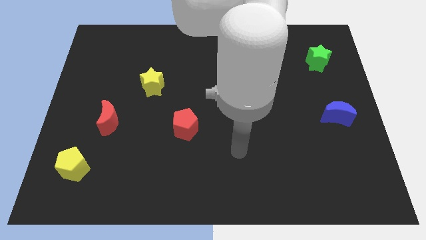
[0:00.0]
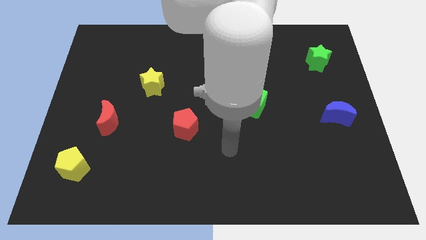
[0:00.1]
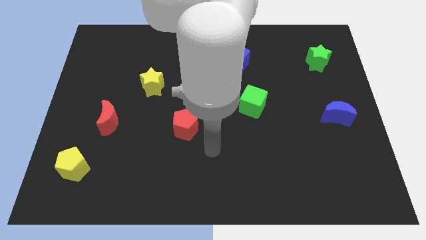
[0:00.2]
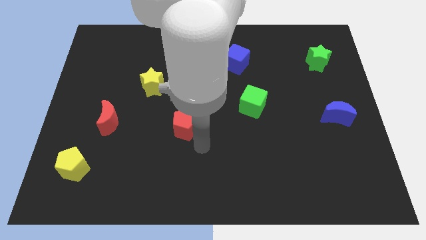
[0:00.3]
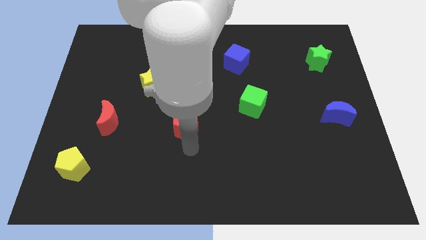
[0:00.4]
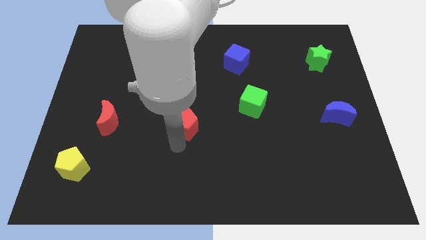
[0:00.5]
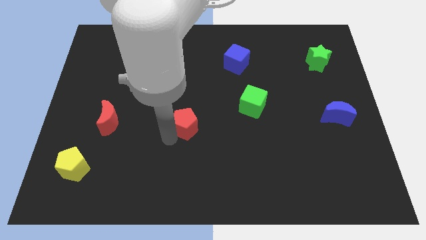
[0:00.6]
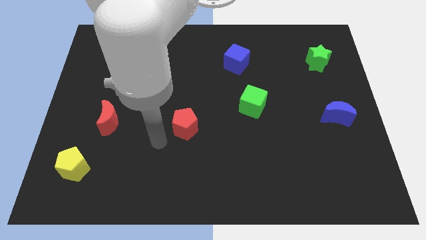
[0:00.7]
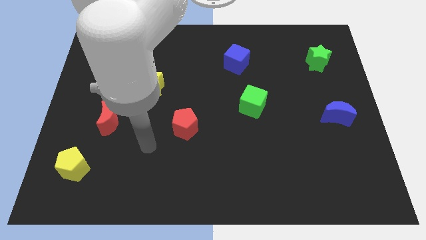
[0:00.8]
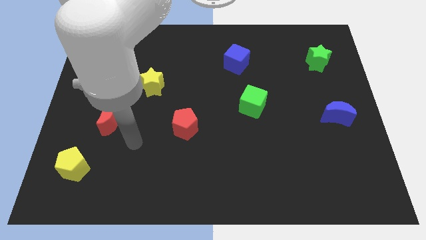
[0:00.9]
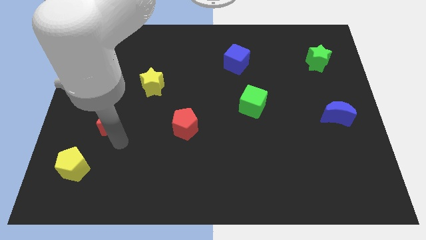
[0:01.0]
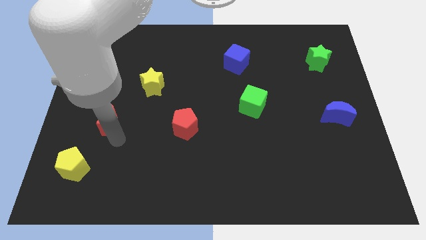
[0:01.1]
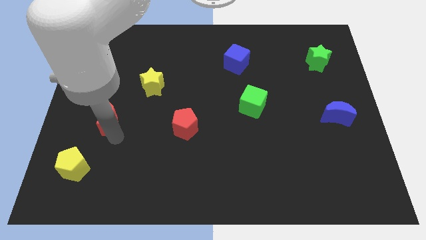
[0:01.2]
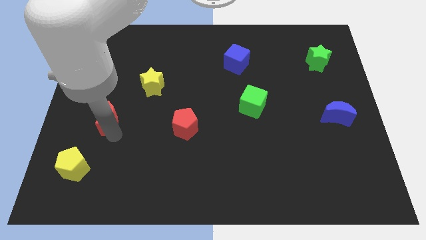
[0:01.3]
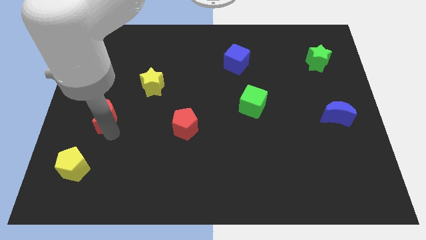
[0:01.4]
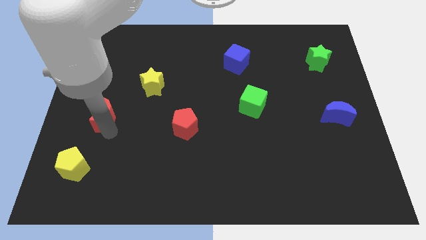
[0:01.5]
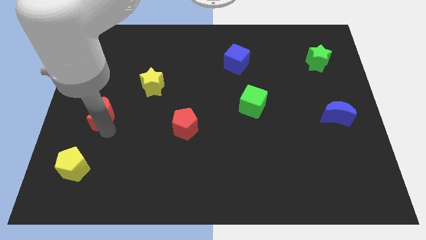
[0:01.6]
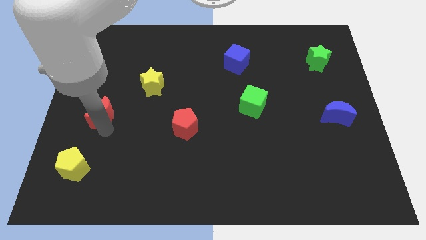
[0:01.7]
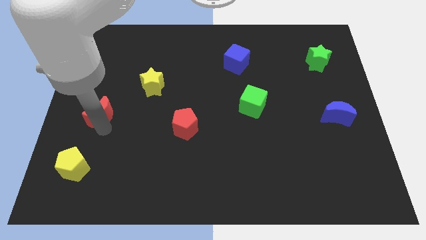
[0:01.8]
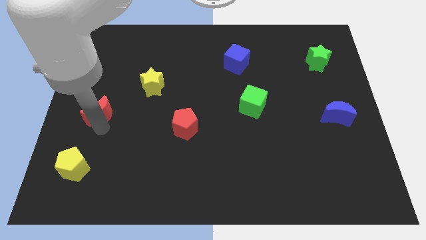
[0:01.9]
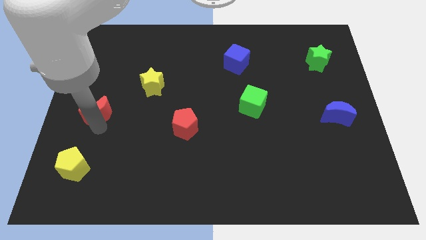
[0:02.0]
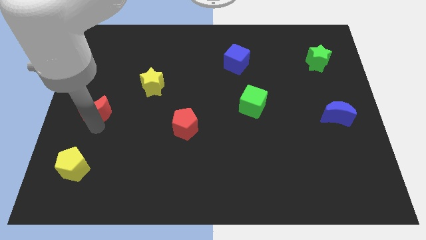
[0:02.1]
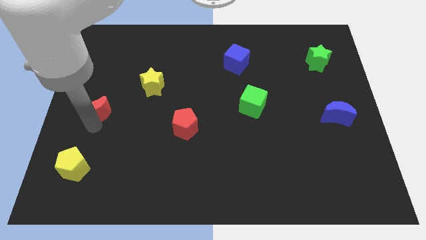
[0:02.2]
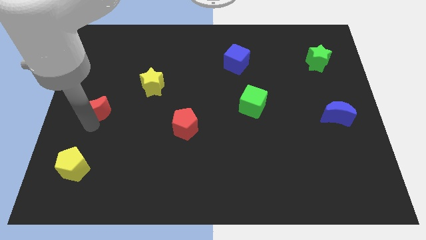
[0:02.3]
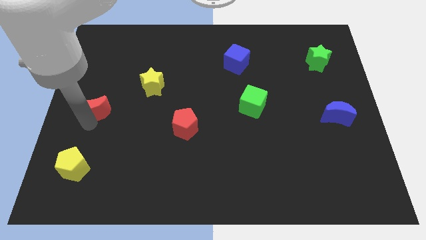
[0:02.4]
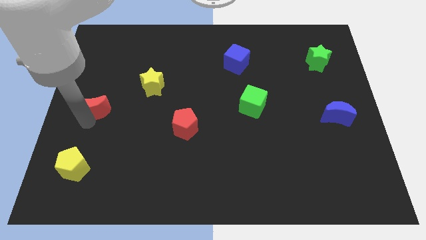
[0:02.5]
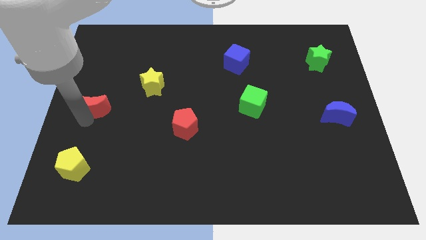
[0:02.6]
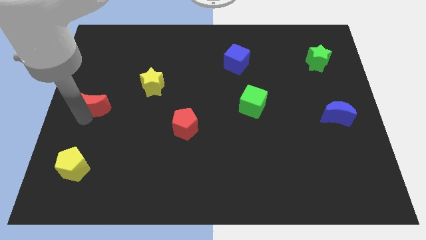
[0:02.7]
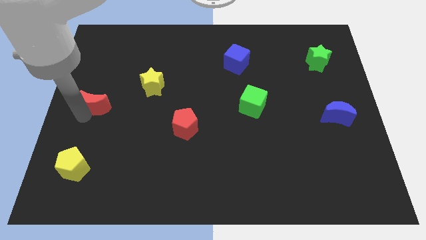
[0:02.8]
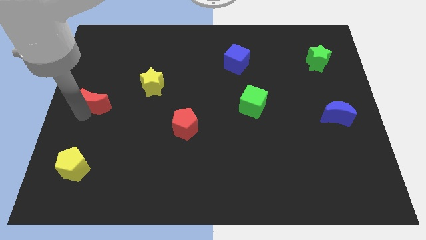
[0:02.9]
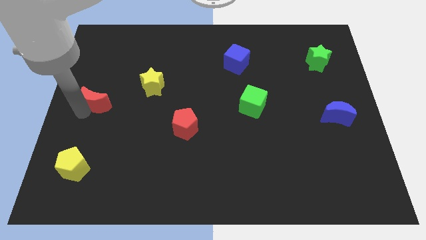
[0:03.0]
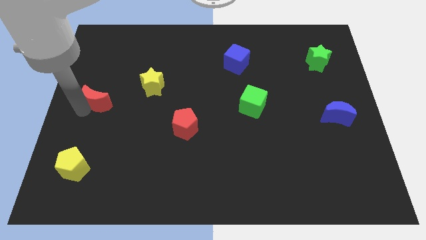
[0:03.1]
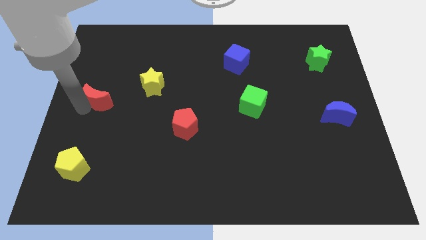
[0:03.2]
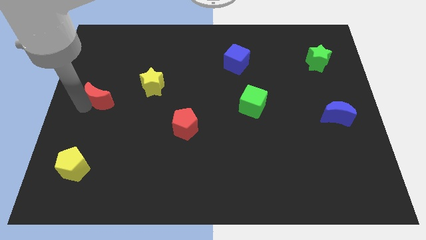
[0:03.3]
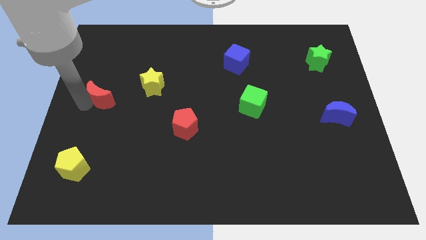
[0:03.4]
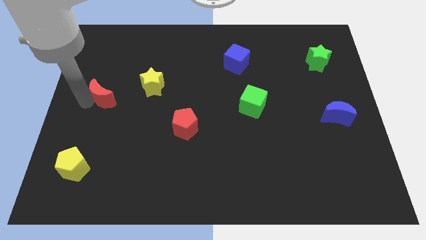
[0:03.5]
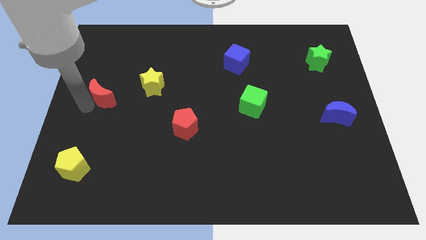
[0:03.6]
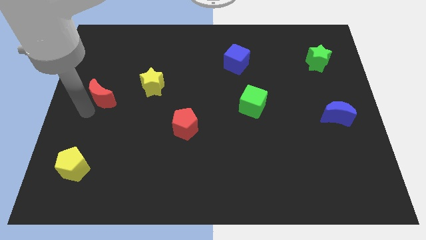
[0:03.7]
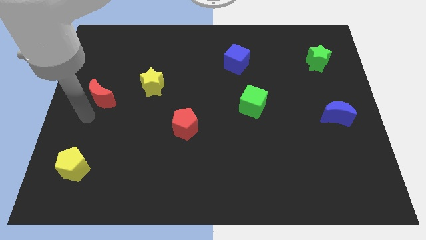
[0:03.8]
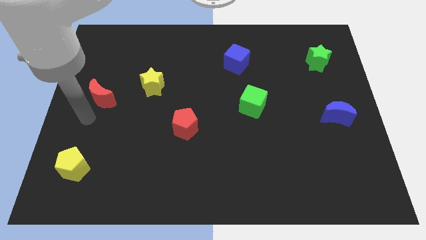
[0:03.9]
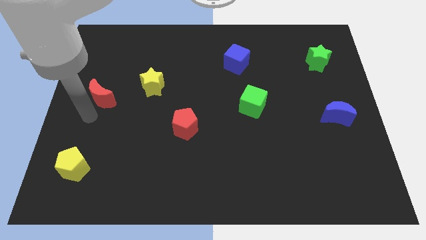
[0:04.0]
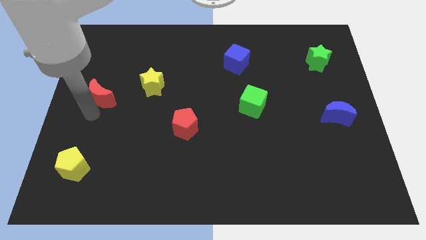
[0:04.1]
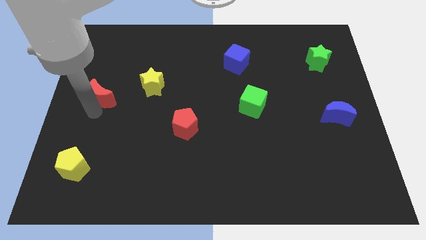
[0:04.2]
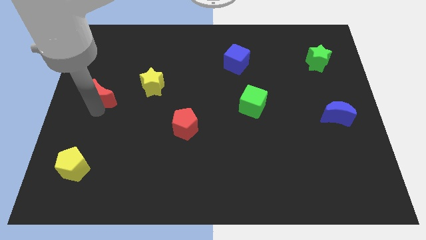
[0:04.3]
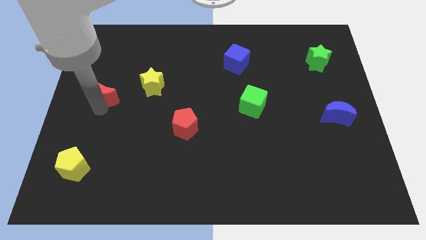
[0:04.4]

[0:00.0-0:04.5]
slightly move the red moon up

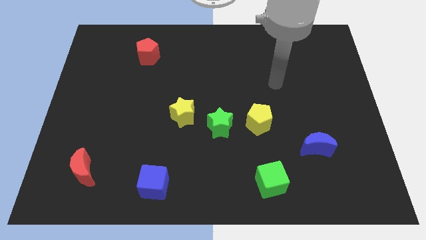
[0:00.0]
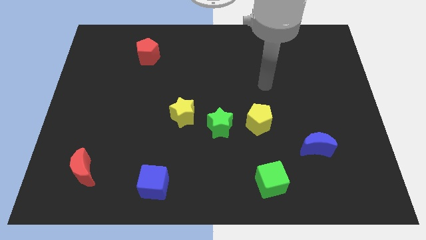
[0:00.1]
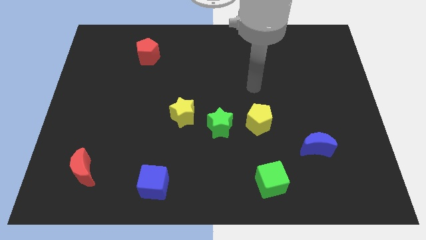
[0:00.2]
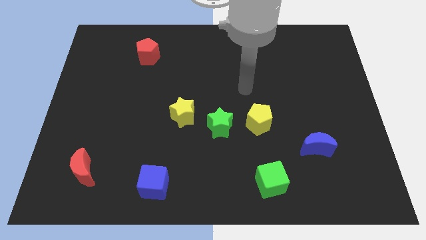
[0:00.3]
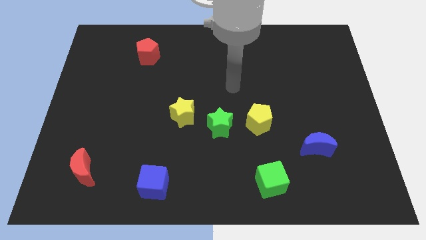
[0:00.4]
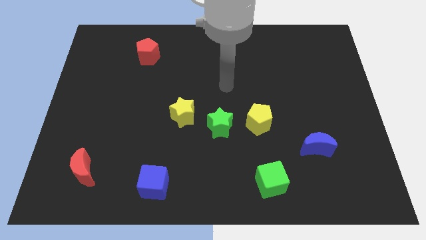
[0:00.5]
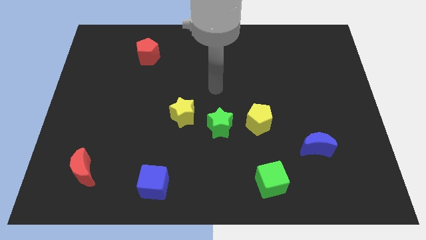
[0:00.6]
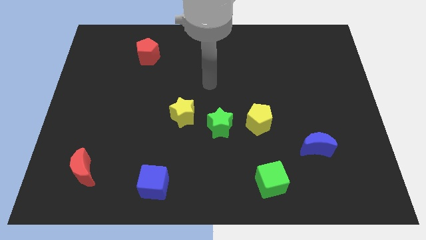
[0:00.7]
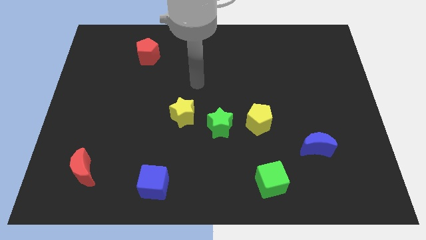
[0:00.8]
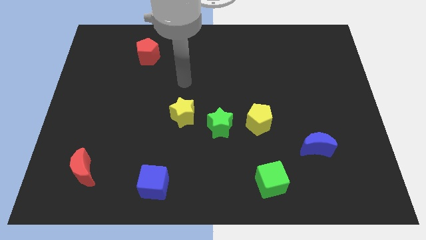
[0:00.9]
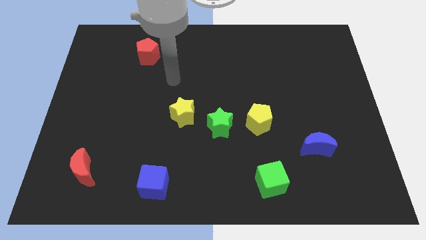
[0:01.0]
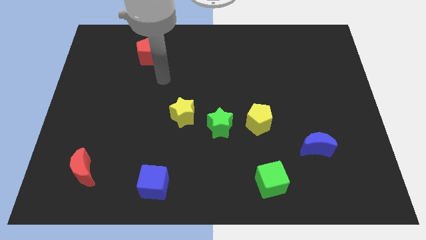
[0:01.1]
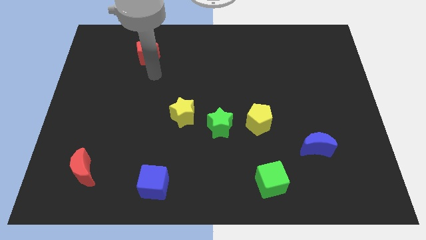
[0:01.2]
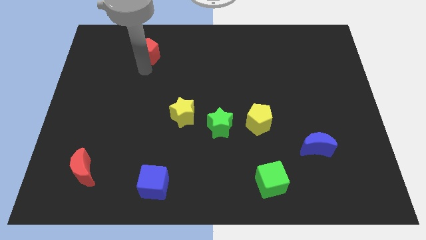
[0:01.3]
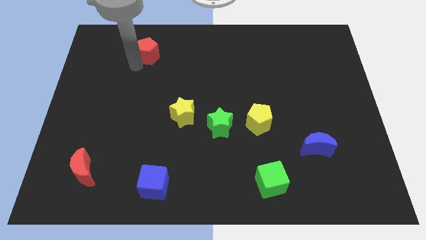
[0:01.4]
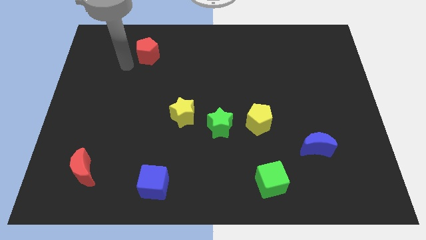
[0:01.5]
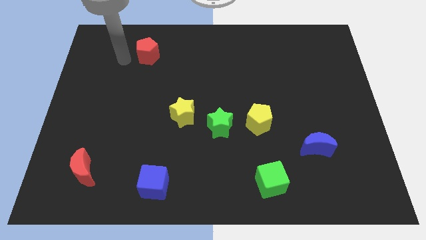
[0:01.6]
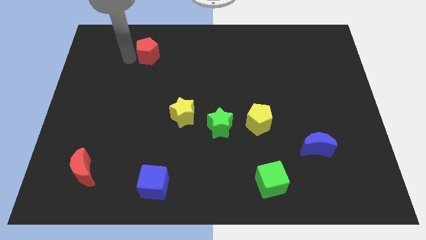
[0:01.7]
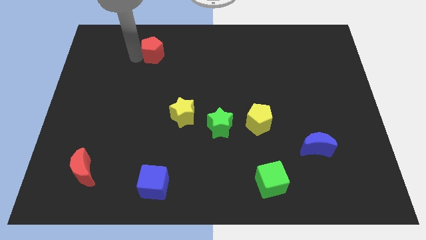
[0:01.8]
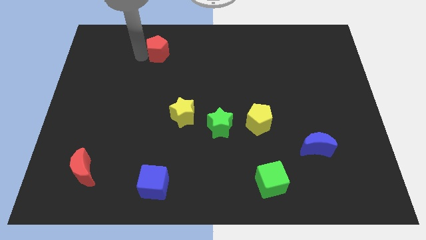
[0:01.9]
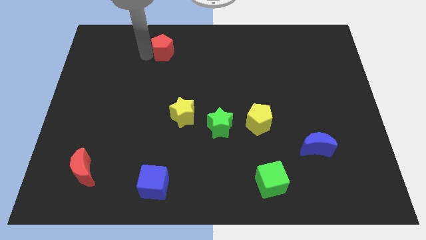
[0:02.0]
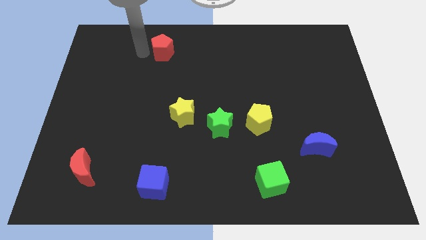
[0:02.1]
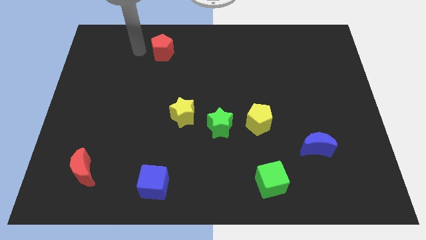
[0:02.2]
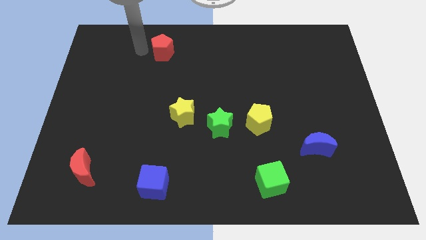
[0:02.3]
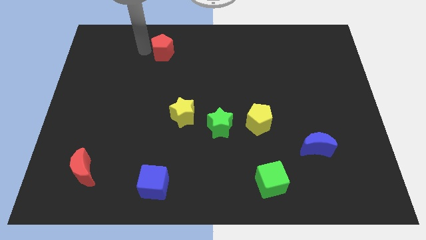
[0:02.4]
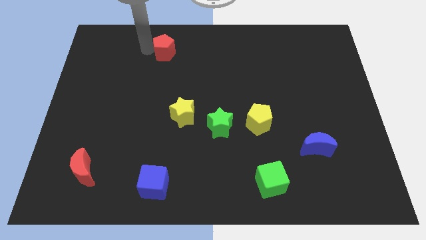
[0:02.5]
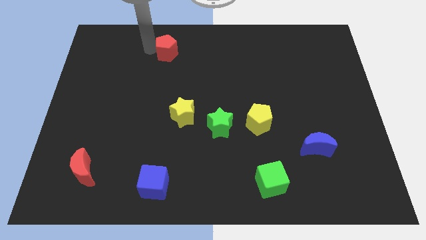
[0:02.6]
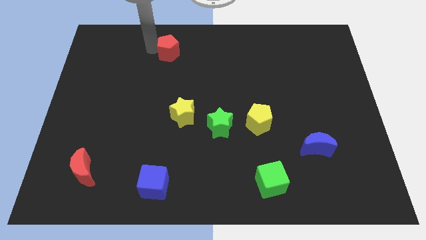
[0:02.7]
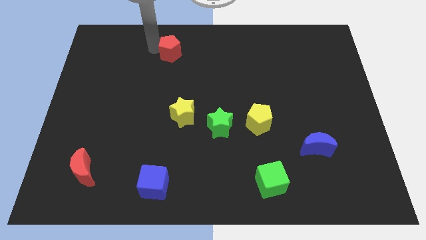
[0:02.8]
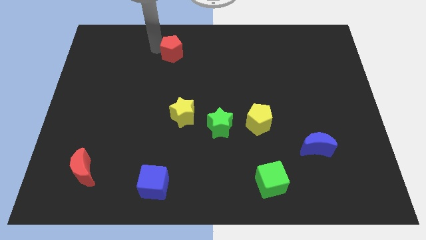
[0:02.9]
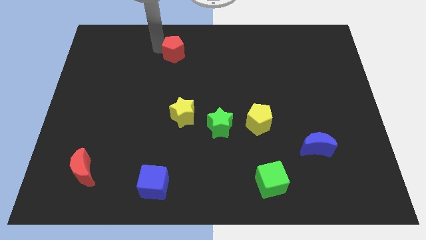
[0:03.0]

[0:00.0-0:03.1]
slightly move the red pentagon right

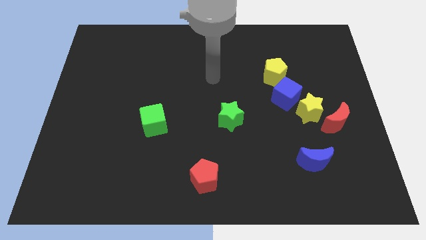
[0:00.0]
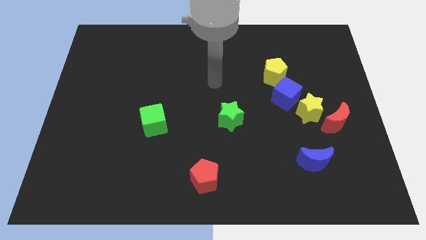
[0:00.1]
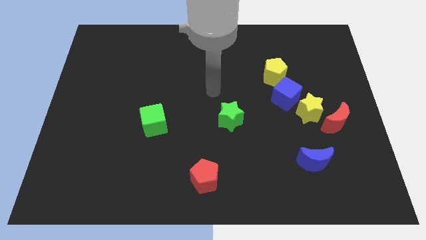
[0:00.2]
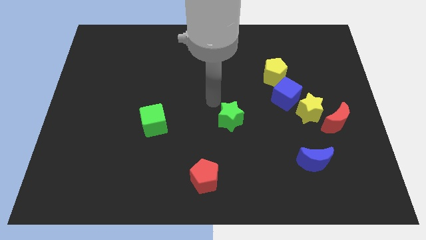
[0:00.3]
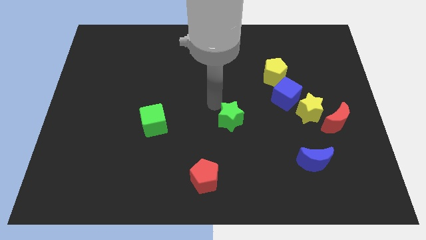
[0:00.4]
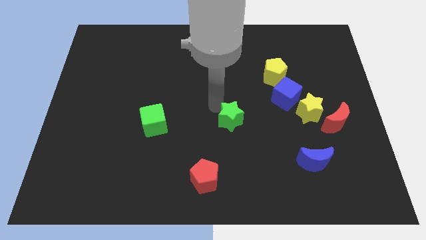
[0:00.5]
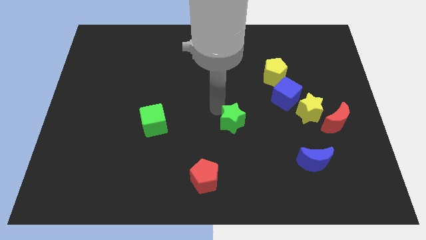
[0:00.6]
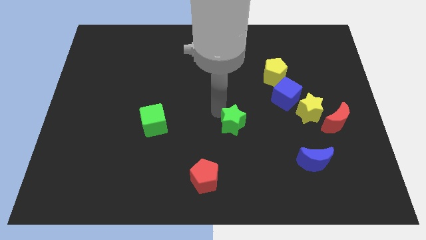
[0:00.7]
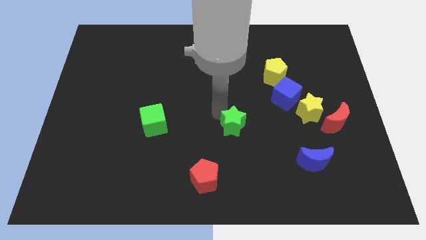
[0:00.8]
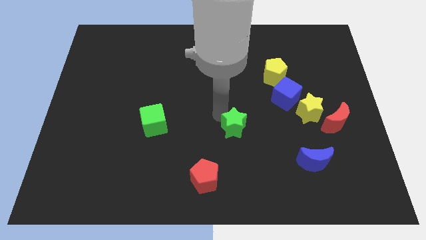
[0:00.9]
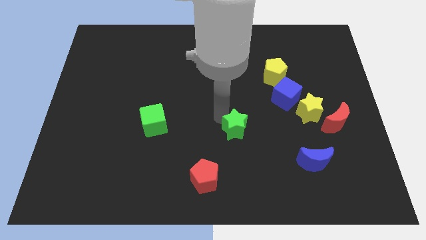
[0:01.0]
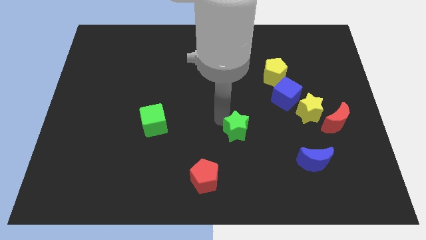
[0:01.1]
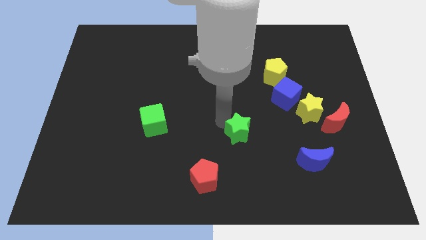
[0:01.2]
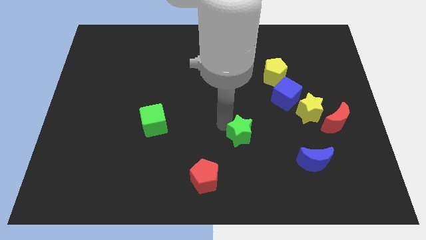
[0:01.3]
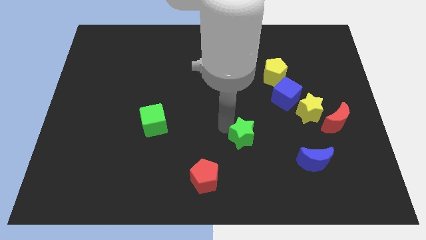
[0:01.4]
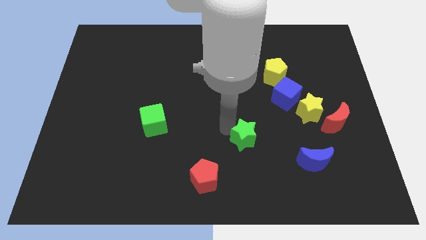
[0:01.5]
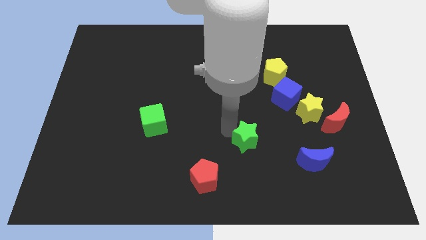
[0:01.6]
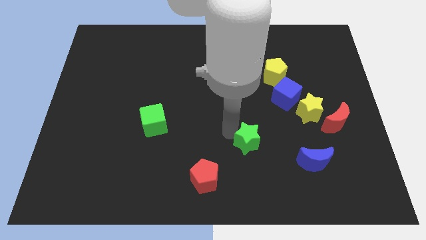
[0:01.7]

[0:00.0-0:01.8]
move the green star down and then to the right a little bit
